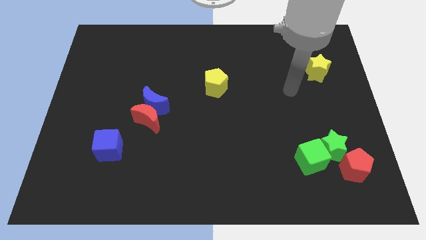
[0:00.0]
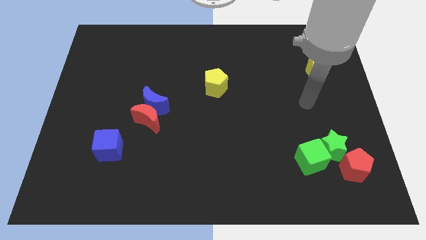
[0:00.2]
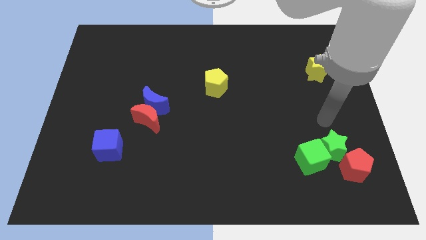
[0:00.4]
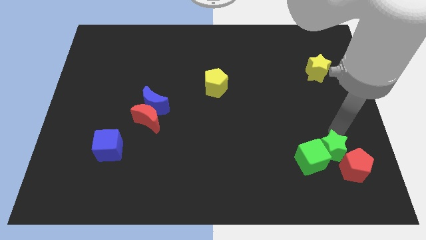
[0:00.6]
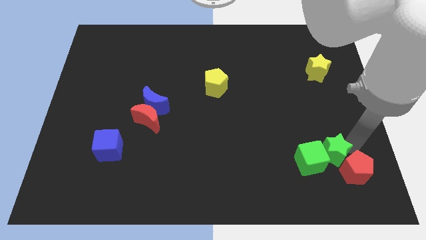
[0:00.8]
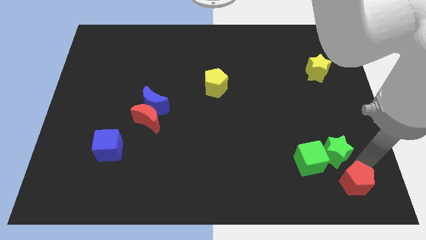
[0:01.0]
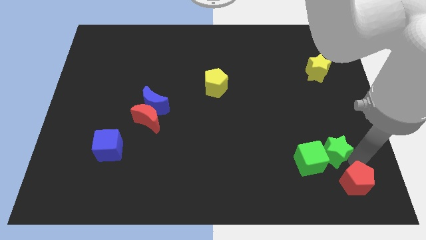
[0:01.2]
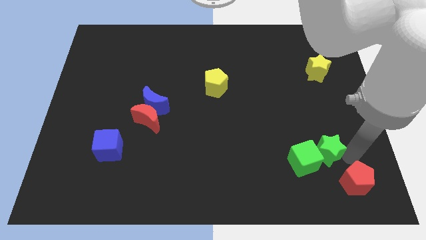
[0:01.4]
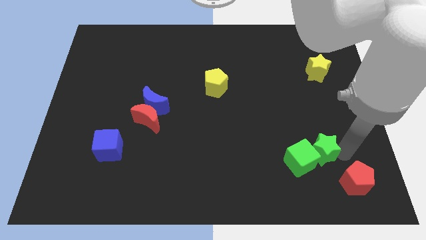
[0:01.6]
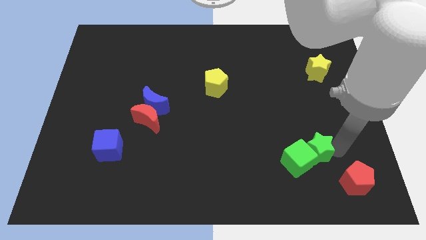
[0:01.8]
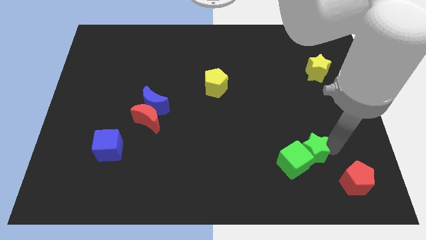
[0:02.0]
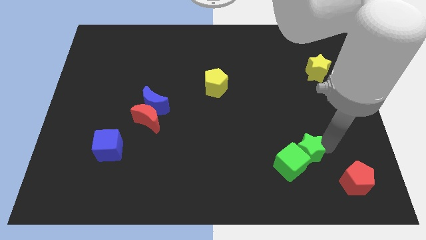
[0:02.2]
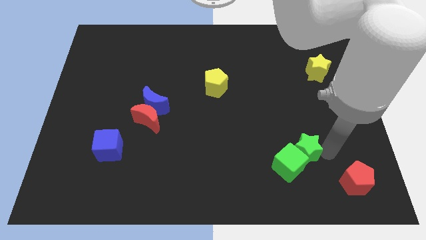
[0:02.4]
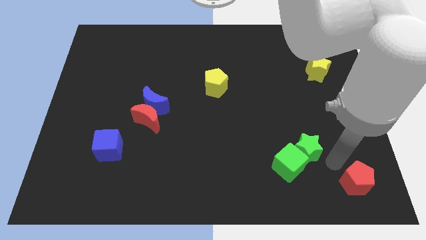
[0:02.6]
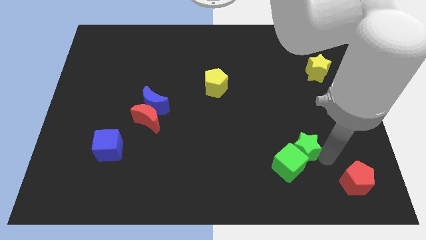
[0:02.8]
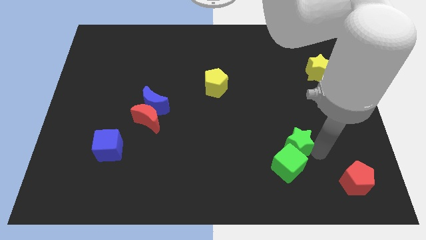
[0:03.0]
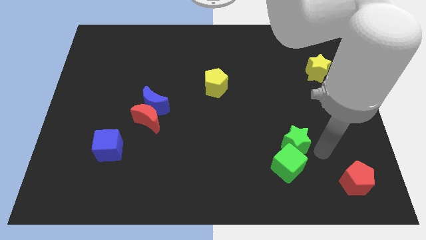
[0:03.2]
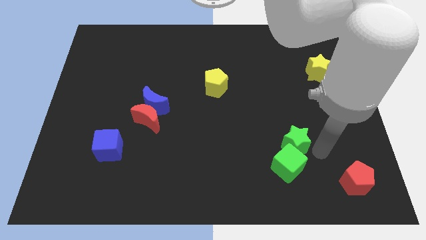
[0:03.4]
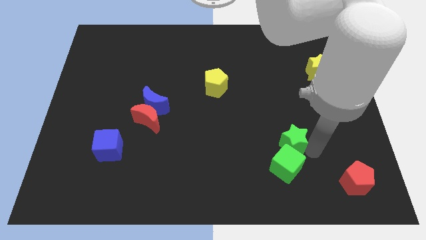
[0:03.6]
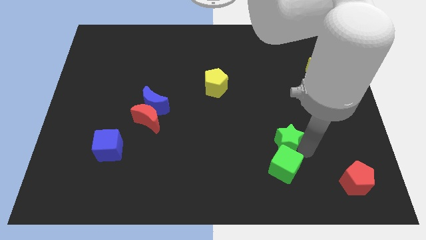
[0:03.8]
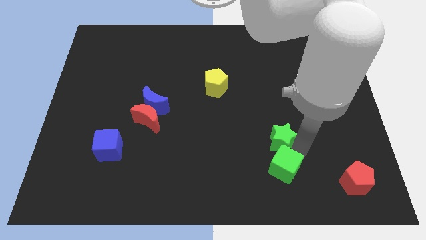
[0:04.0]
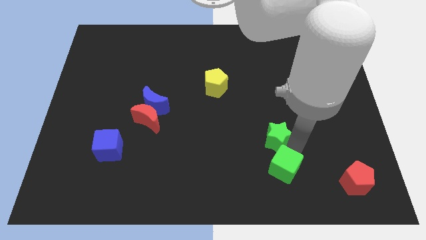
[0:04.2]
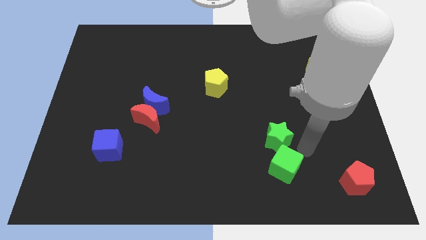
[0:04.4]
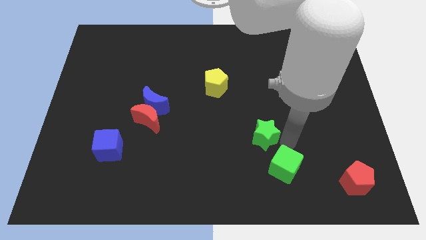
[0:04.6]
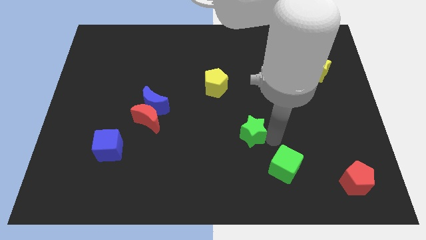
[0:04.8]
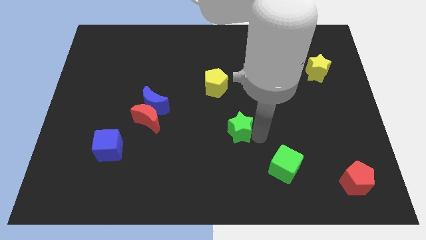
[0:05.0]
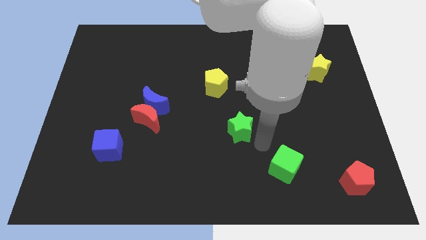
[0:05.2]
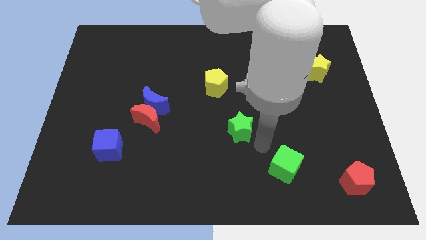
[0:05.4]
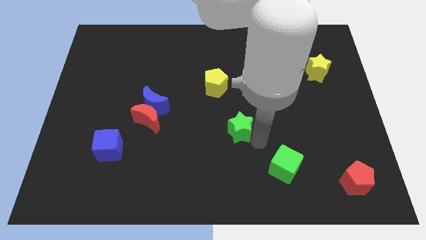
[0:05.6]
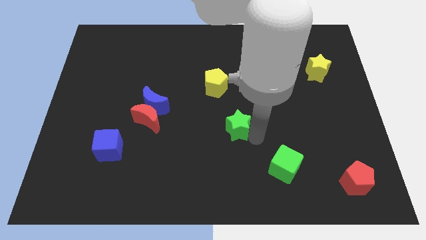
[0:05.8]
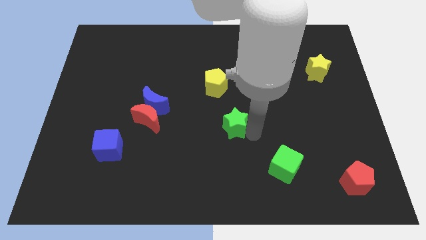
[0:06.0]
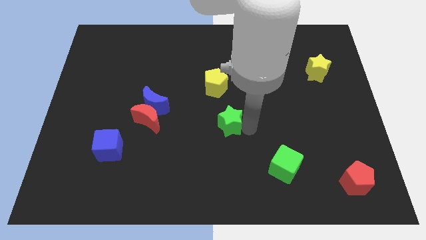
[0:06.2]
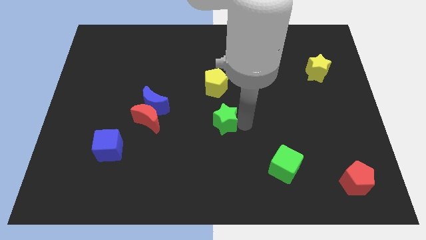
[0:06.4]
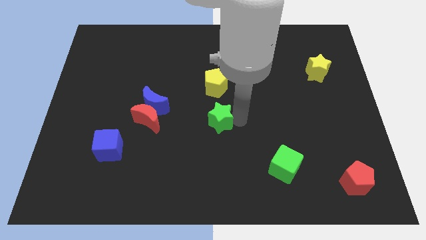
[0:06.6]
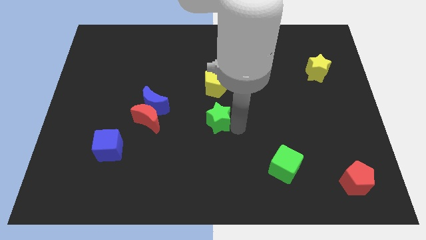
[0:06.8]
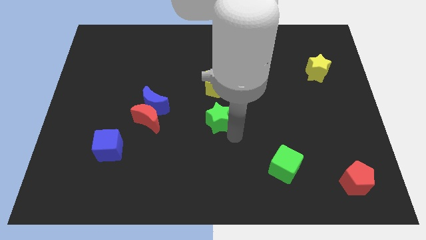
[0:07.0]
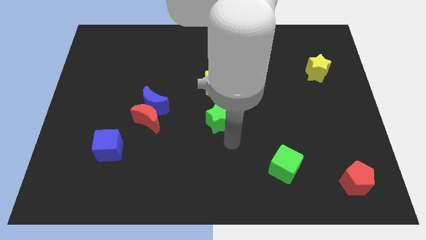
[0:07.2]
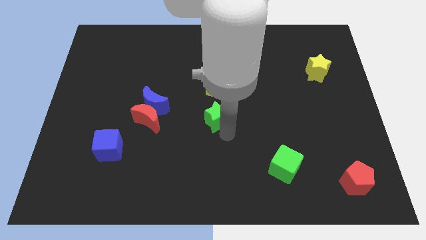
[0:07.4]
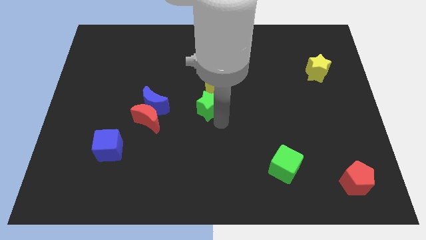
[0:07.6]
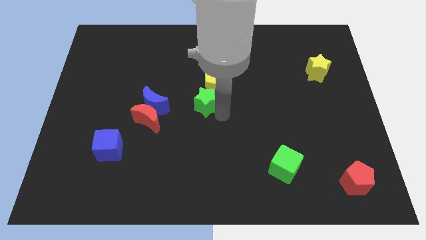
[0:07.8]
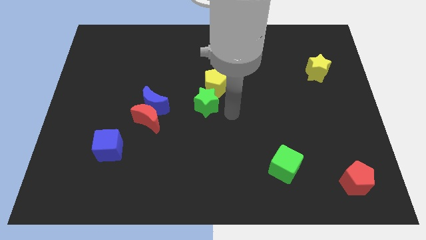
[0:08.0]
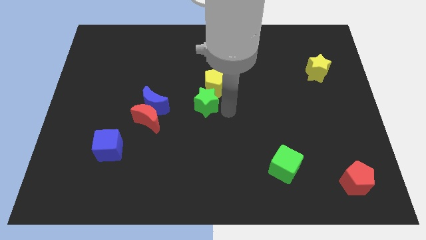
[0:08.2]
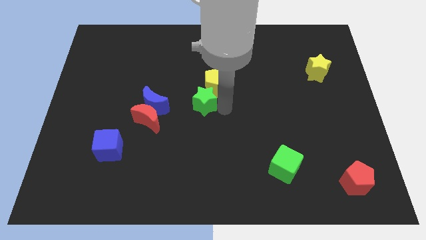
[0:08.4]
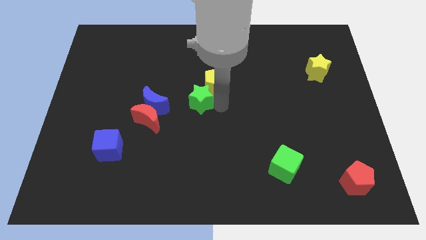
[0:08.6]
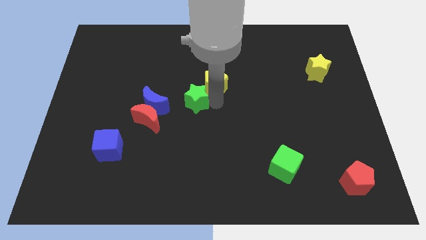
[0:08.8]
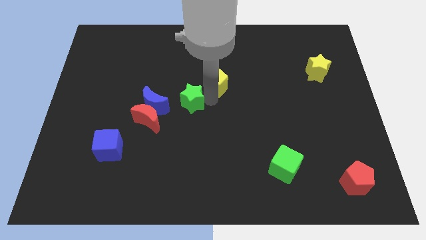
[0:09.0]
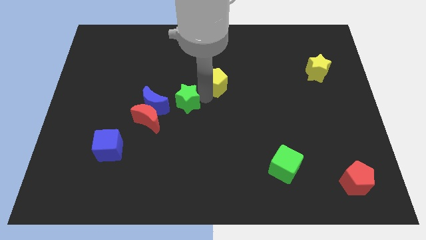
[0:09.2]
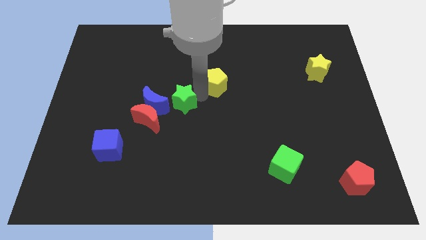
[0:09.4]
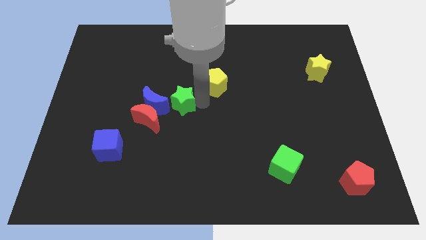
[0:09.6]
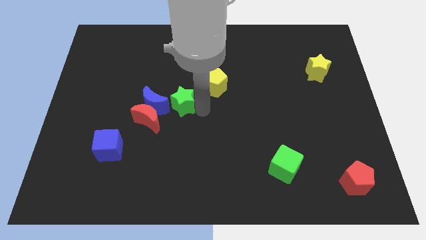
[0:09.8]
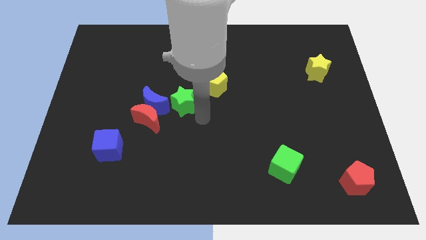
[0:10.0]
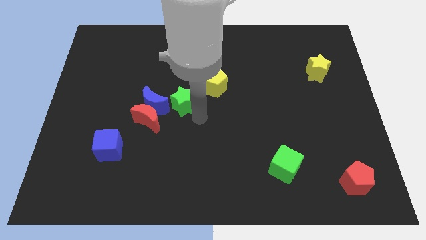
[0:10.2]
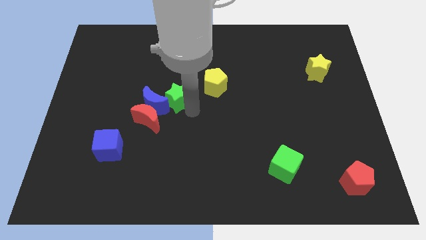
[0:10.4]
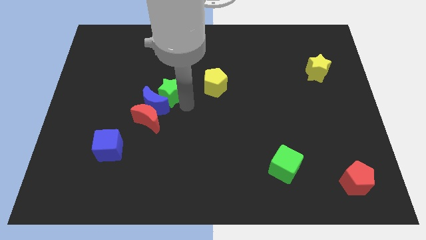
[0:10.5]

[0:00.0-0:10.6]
move the green star above the red moon

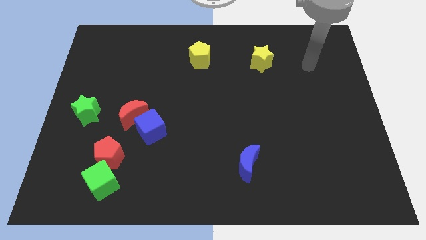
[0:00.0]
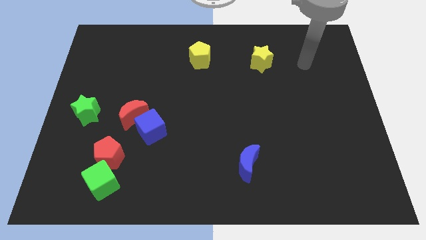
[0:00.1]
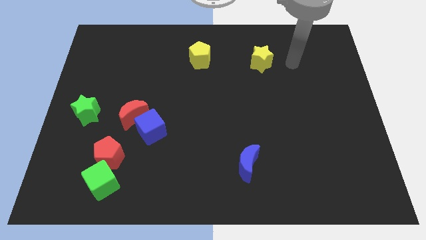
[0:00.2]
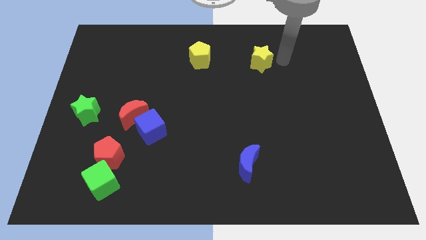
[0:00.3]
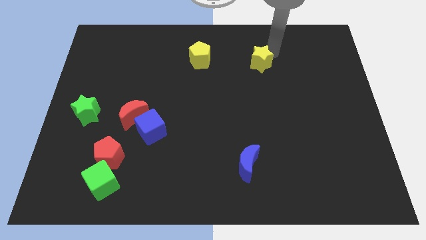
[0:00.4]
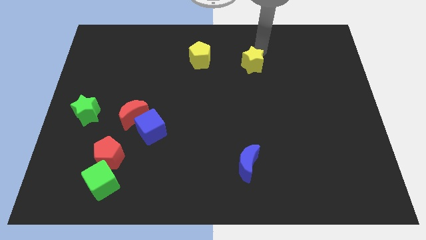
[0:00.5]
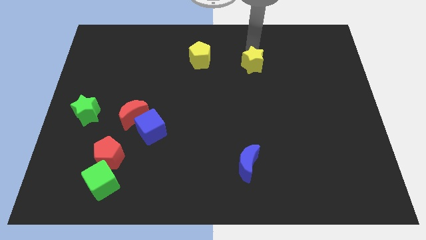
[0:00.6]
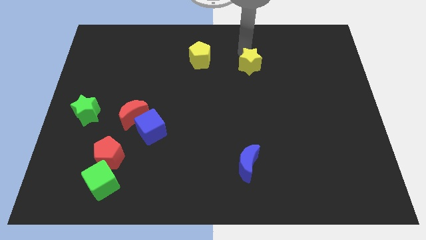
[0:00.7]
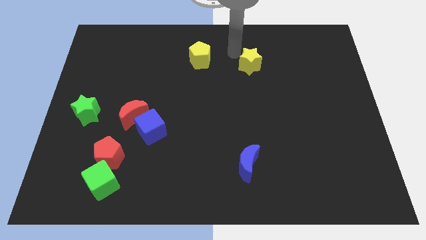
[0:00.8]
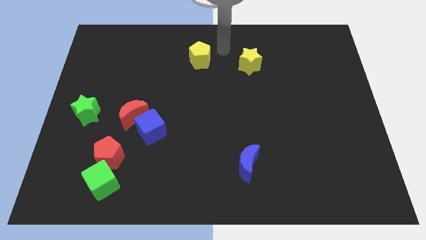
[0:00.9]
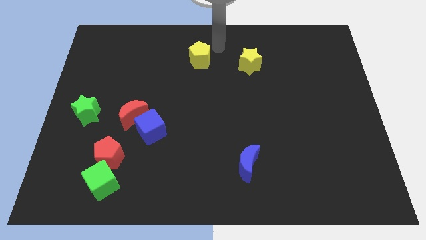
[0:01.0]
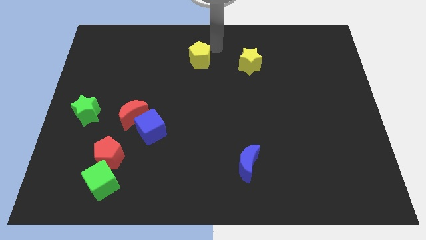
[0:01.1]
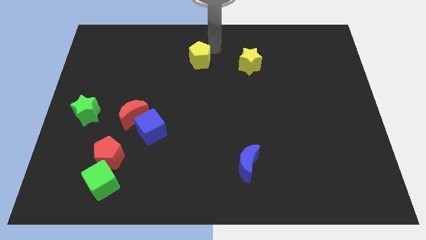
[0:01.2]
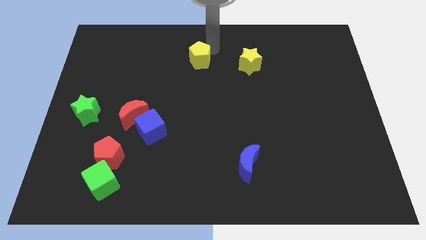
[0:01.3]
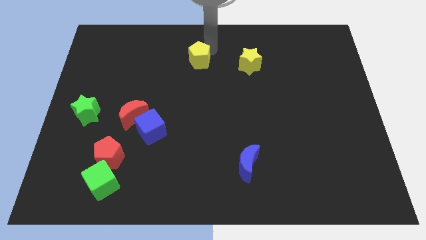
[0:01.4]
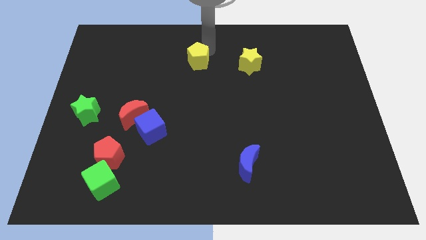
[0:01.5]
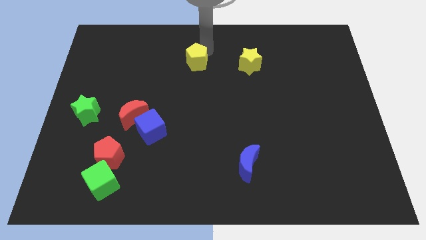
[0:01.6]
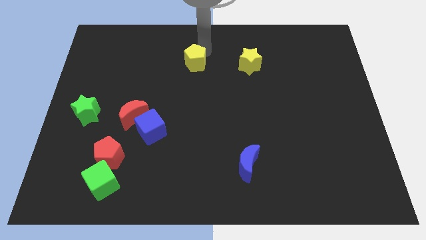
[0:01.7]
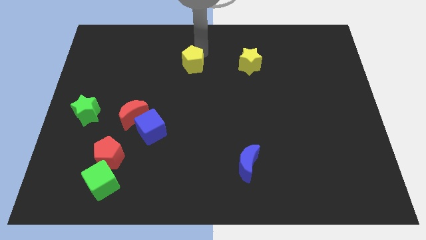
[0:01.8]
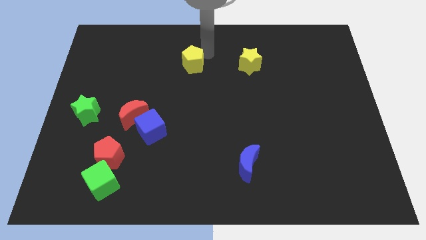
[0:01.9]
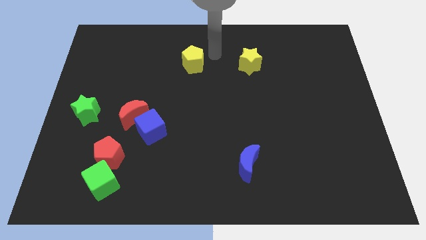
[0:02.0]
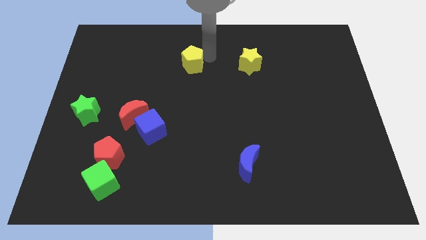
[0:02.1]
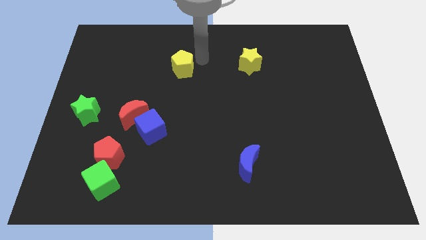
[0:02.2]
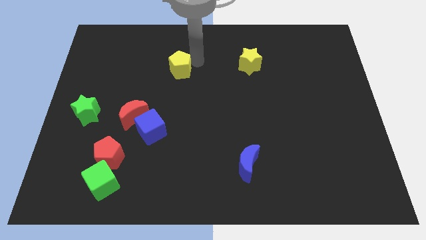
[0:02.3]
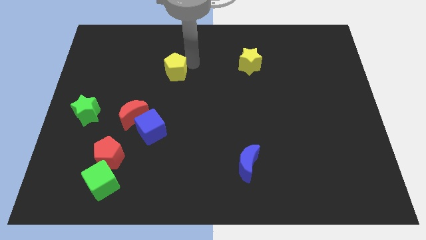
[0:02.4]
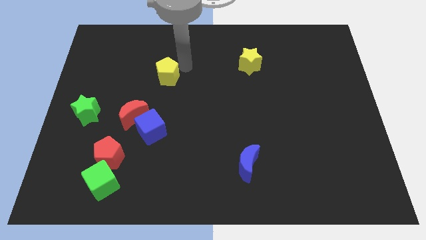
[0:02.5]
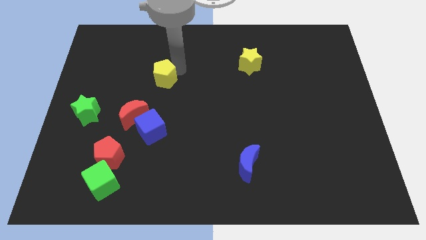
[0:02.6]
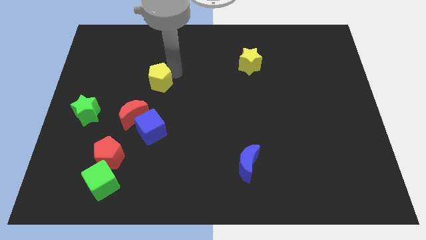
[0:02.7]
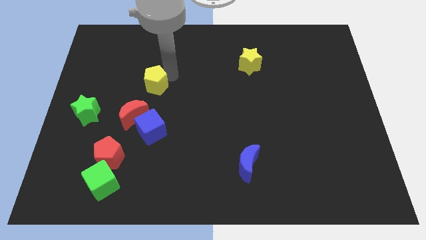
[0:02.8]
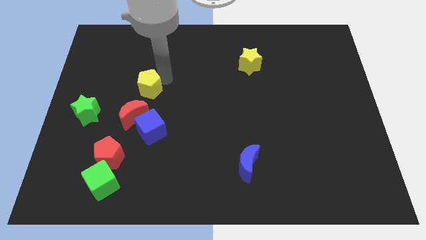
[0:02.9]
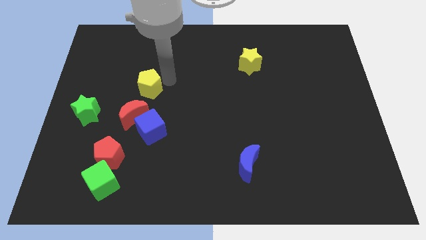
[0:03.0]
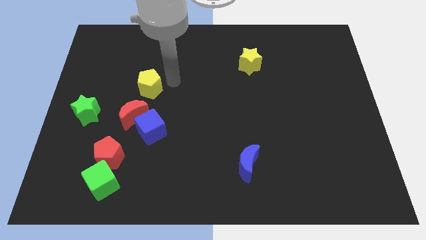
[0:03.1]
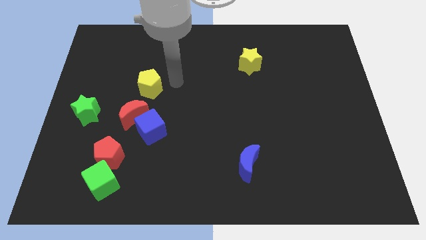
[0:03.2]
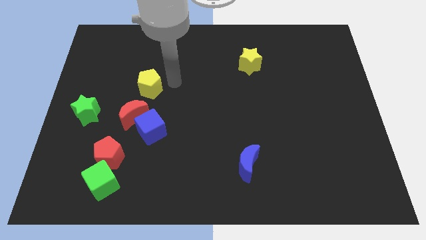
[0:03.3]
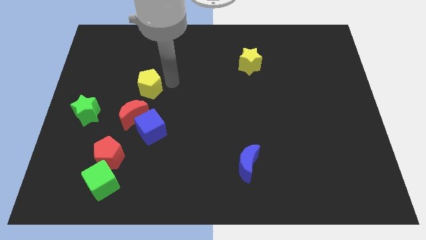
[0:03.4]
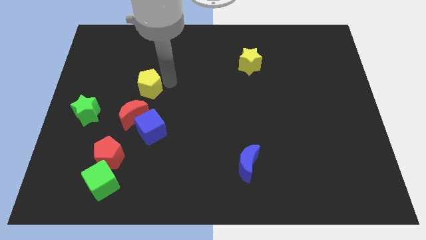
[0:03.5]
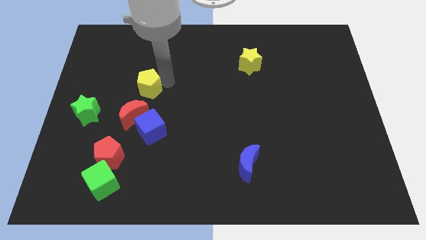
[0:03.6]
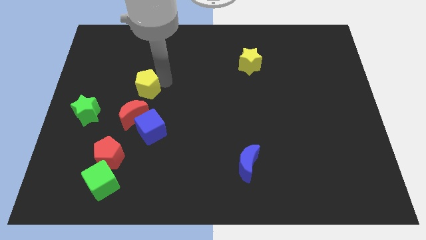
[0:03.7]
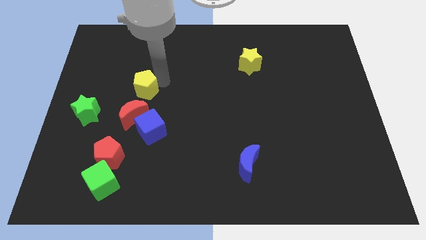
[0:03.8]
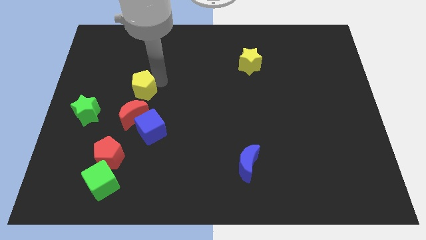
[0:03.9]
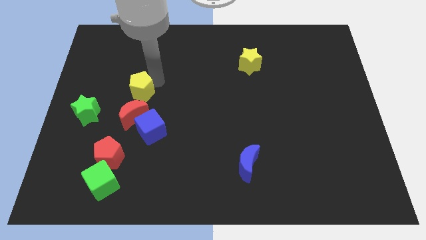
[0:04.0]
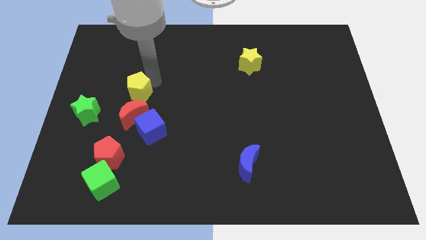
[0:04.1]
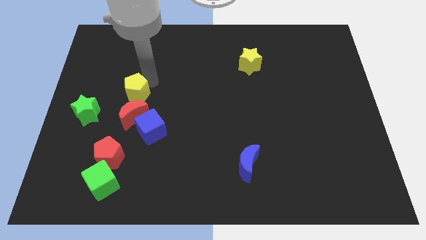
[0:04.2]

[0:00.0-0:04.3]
move the yellow pentagon to the top left of the red moon
